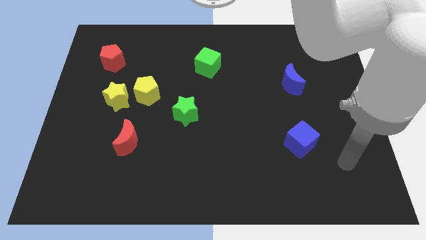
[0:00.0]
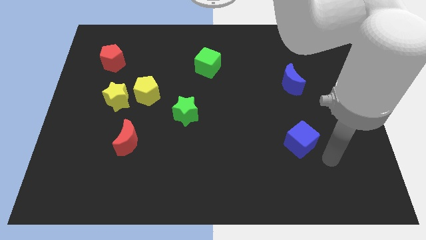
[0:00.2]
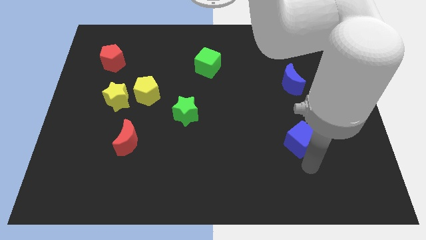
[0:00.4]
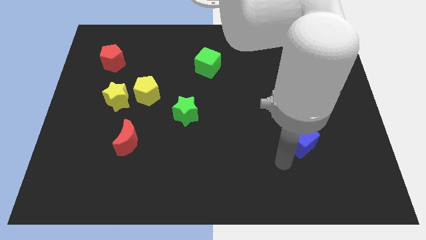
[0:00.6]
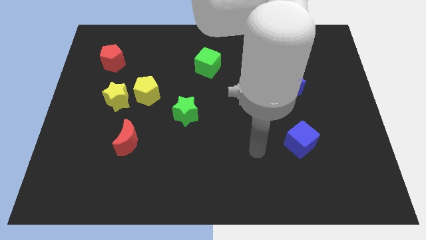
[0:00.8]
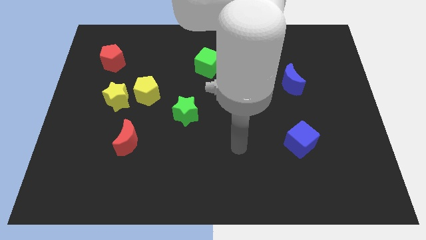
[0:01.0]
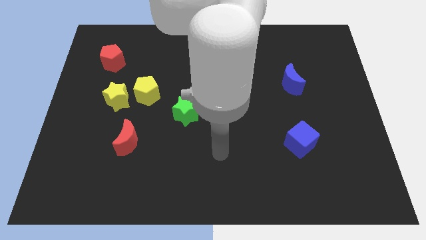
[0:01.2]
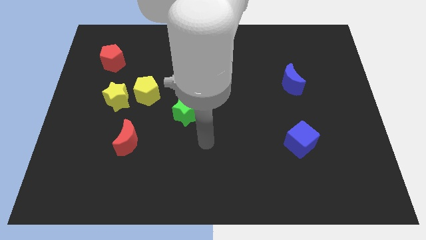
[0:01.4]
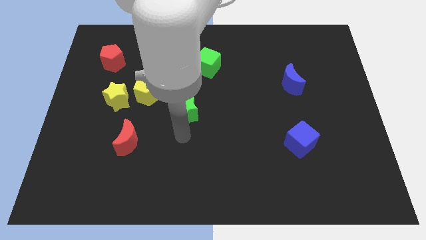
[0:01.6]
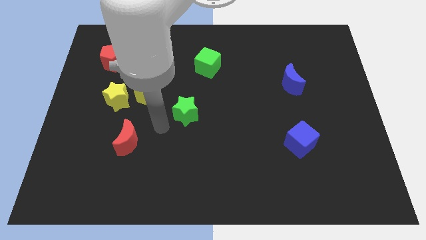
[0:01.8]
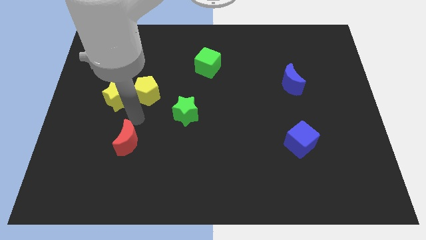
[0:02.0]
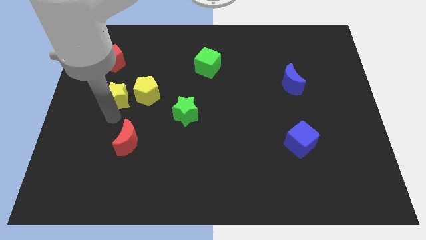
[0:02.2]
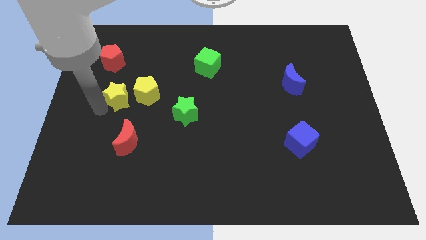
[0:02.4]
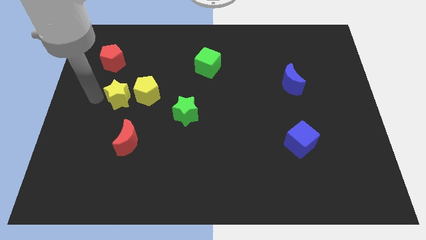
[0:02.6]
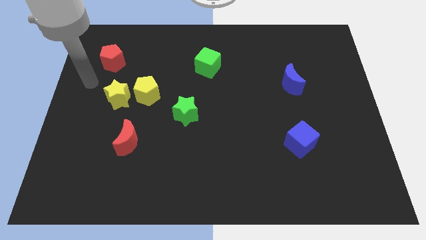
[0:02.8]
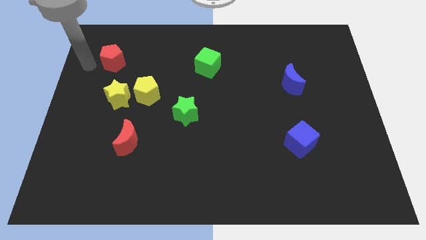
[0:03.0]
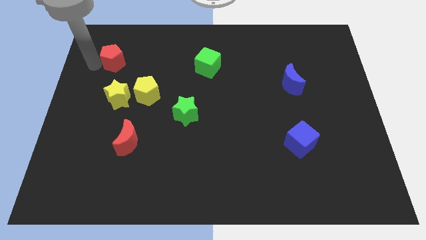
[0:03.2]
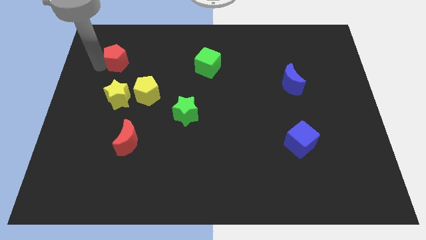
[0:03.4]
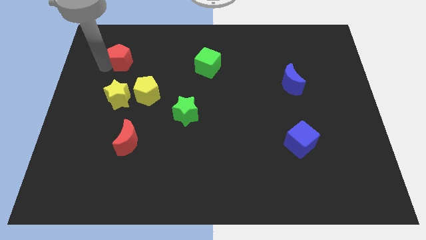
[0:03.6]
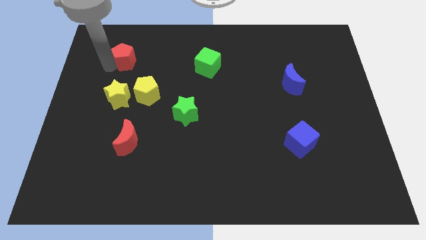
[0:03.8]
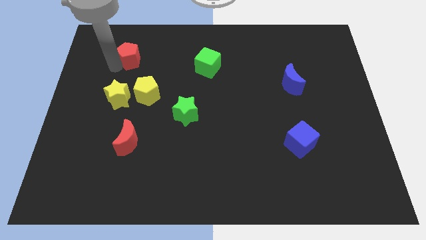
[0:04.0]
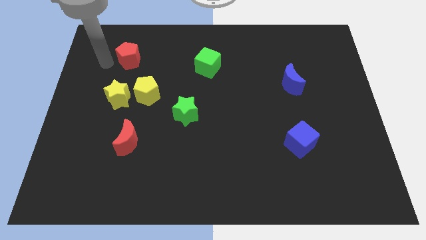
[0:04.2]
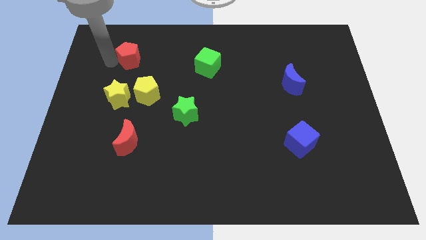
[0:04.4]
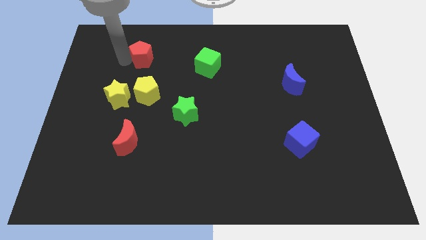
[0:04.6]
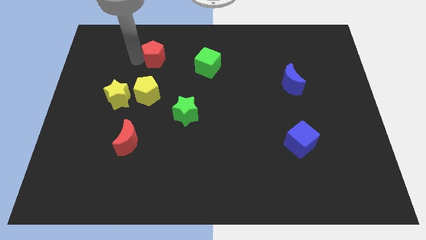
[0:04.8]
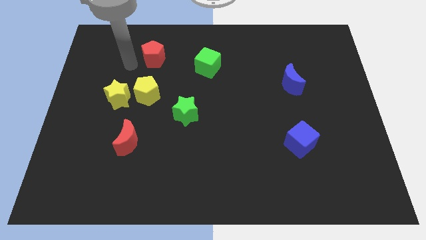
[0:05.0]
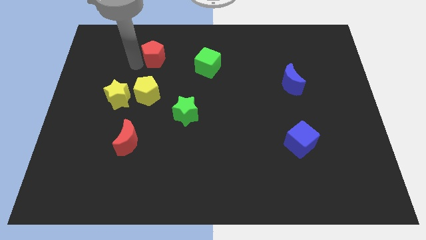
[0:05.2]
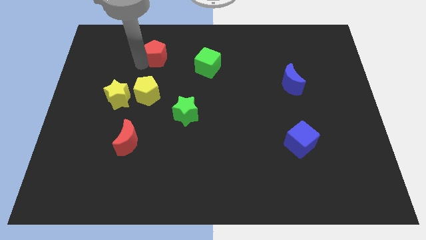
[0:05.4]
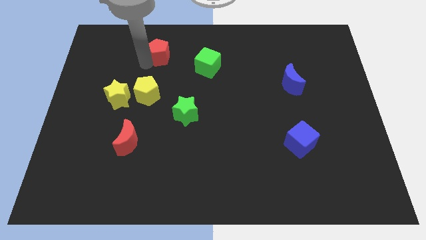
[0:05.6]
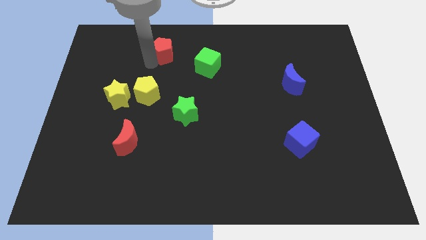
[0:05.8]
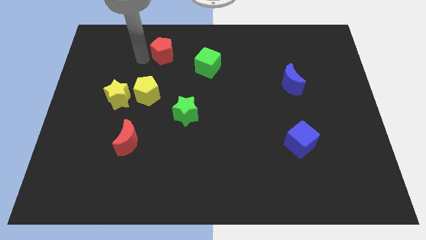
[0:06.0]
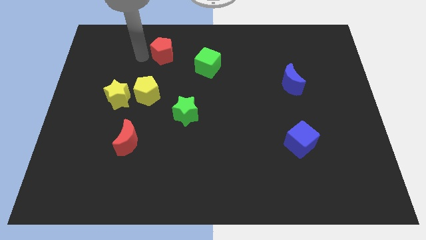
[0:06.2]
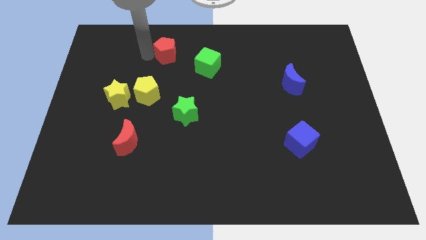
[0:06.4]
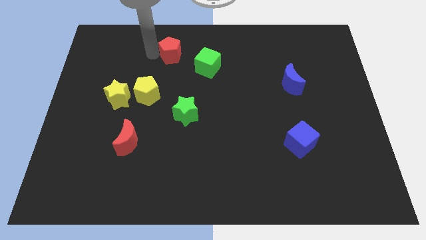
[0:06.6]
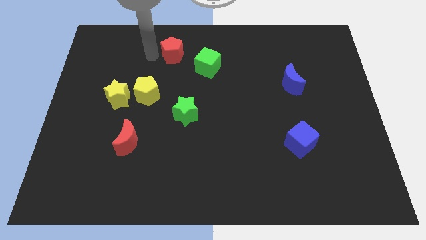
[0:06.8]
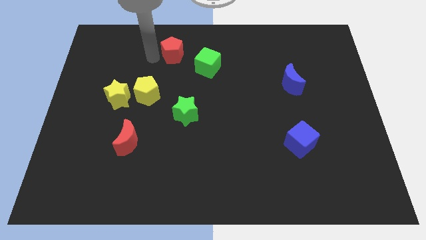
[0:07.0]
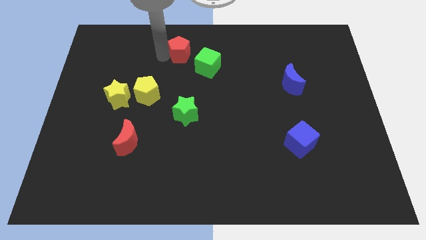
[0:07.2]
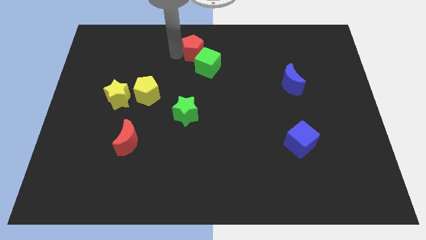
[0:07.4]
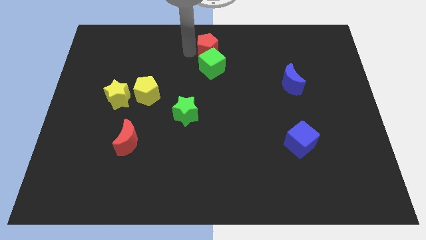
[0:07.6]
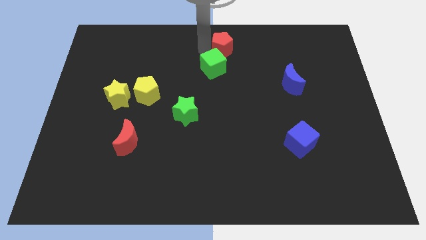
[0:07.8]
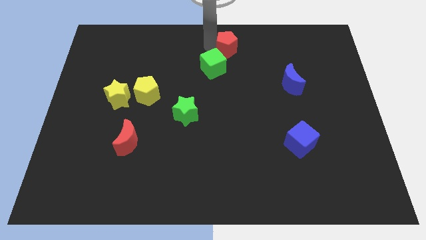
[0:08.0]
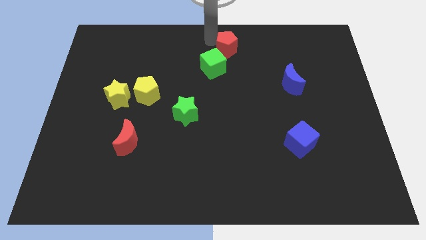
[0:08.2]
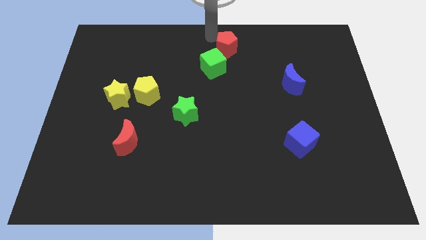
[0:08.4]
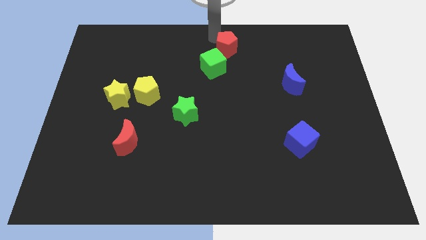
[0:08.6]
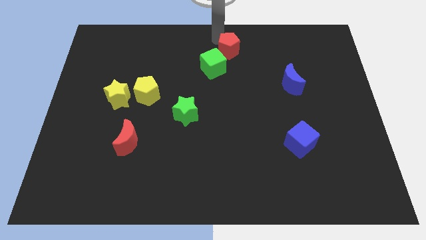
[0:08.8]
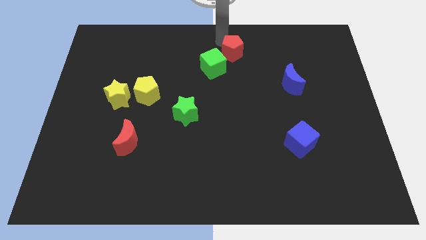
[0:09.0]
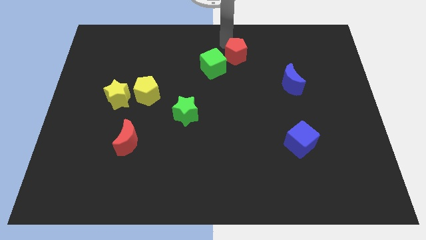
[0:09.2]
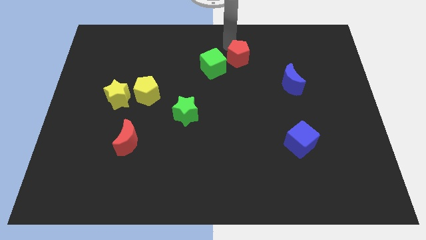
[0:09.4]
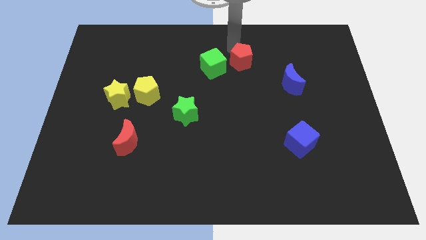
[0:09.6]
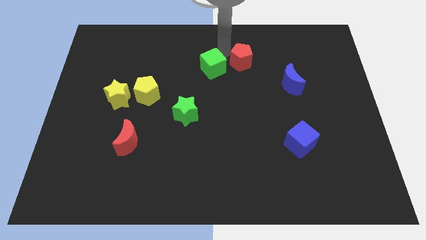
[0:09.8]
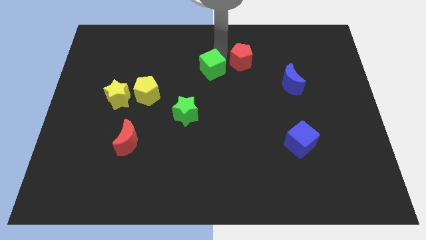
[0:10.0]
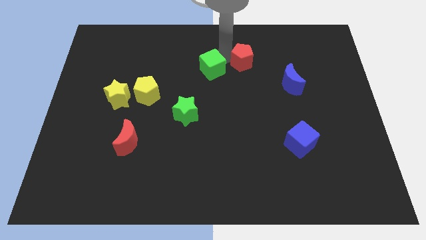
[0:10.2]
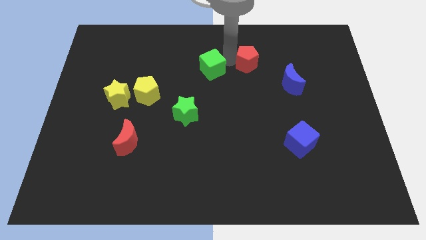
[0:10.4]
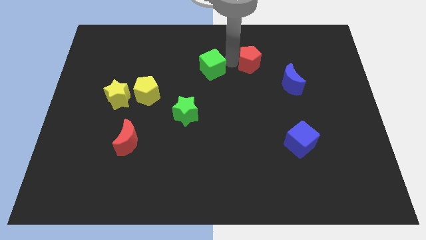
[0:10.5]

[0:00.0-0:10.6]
move the red pentagon to the top left of the blue moon

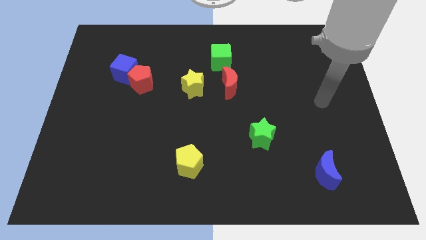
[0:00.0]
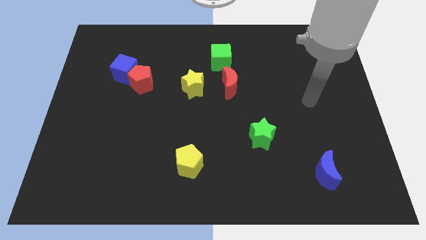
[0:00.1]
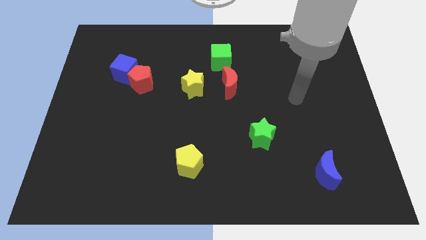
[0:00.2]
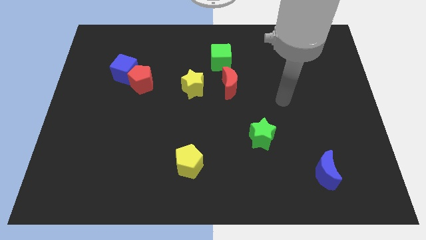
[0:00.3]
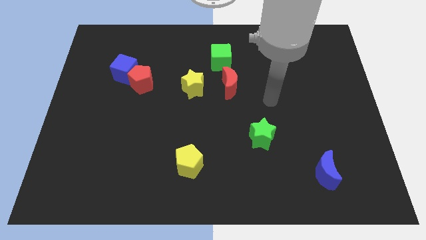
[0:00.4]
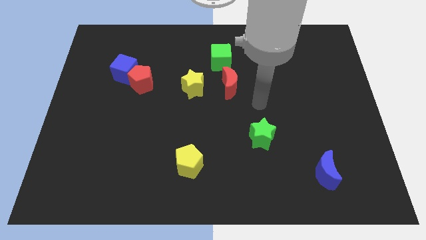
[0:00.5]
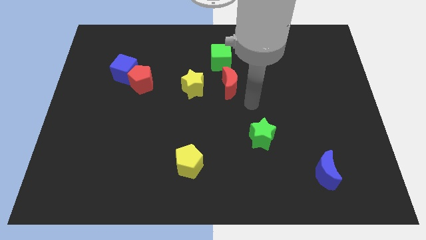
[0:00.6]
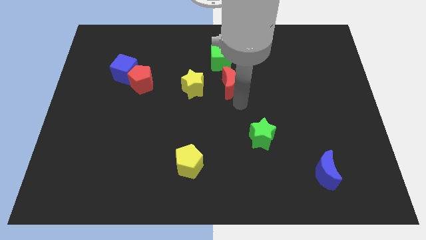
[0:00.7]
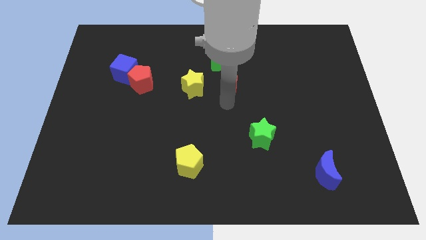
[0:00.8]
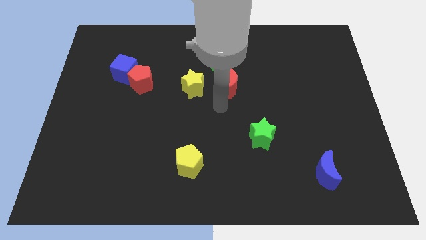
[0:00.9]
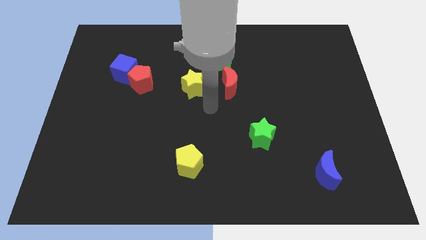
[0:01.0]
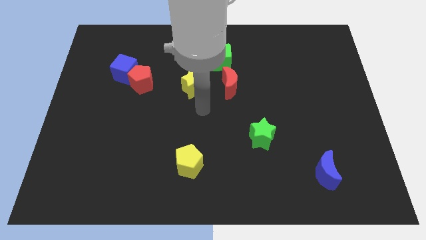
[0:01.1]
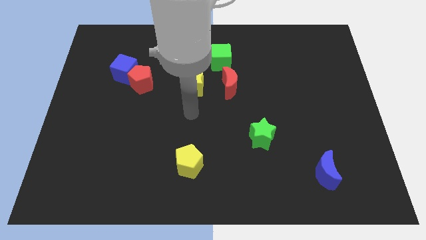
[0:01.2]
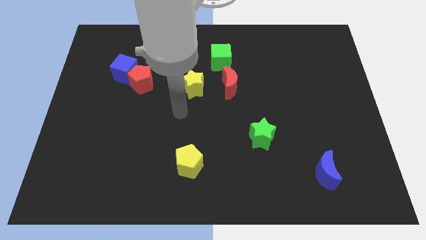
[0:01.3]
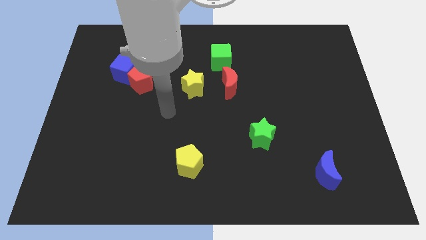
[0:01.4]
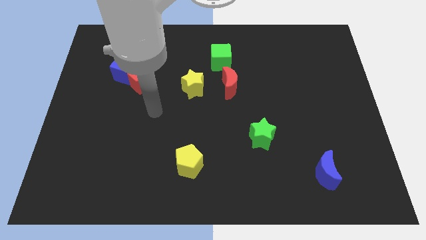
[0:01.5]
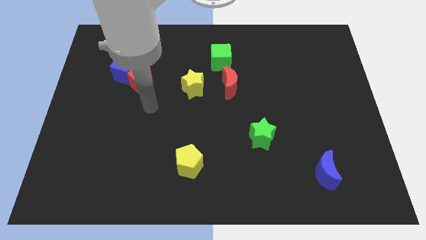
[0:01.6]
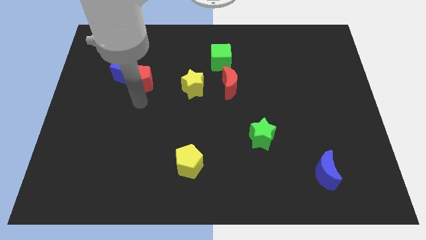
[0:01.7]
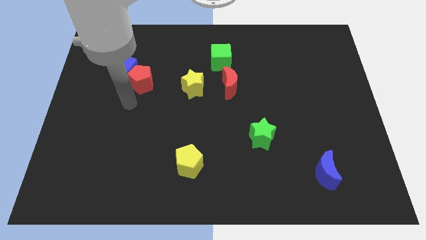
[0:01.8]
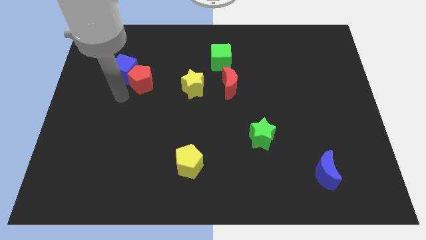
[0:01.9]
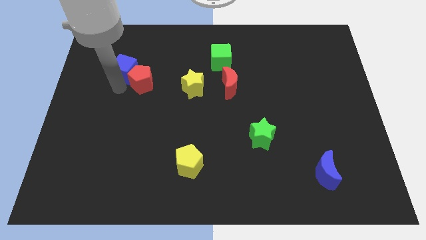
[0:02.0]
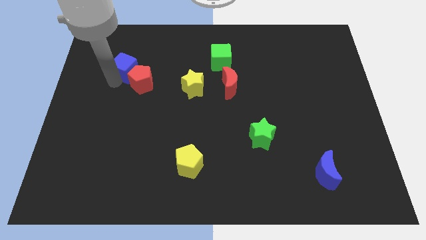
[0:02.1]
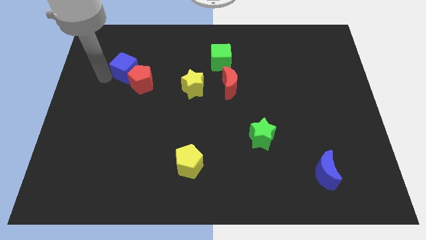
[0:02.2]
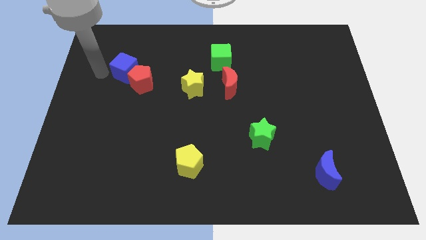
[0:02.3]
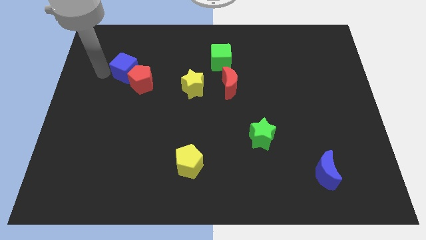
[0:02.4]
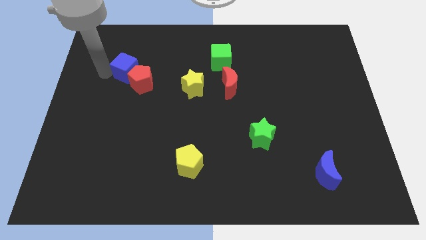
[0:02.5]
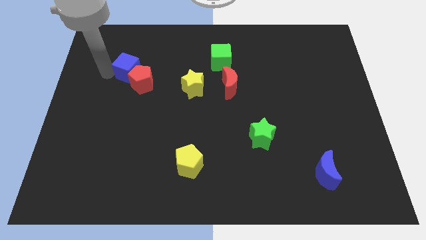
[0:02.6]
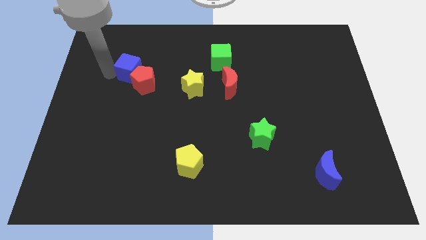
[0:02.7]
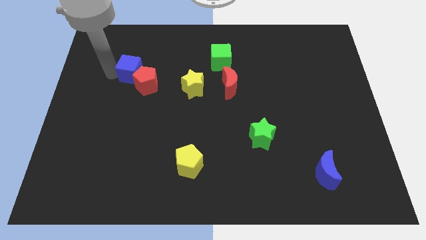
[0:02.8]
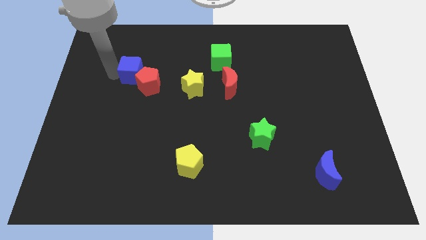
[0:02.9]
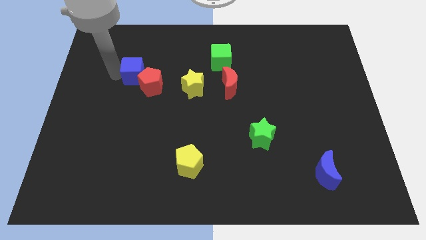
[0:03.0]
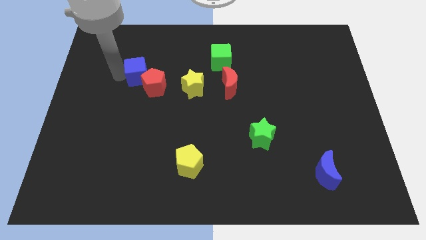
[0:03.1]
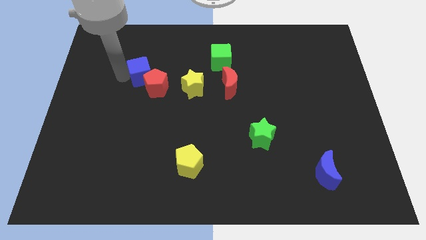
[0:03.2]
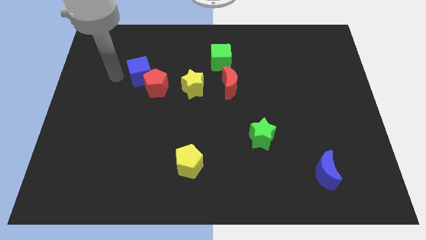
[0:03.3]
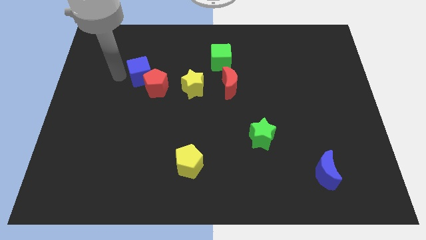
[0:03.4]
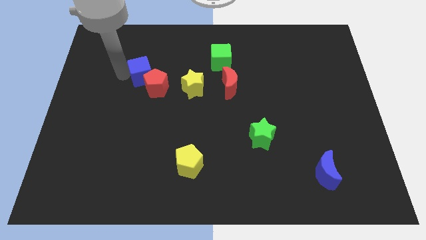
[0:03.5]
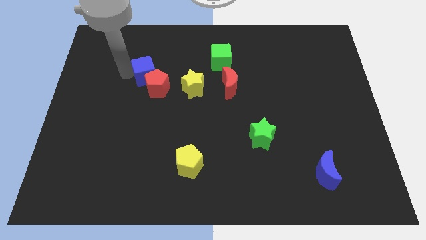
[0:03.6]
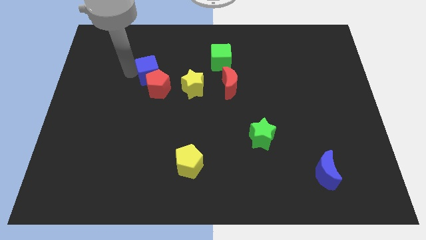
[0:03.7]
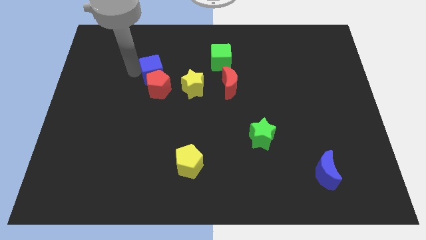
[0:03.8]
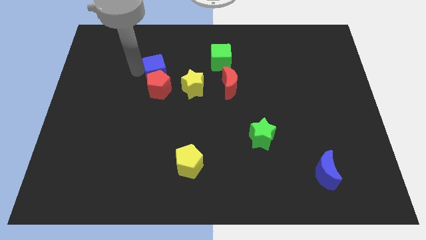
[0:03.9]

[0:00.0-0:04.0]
put the blue cube to the top right side of the red pentagon
